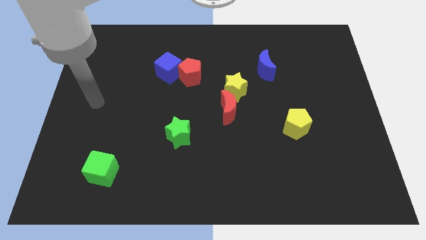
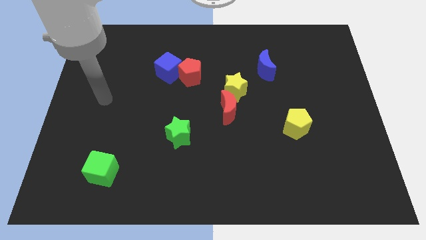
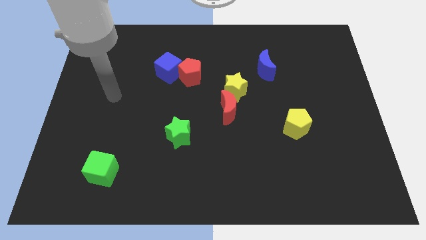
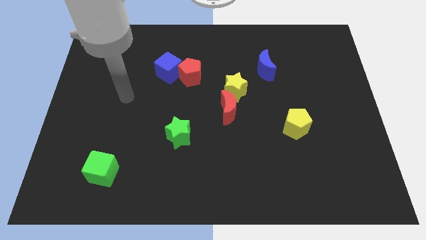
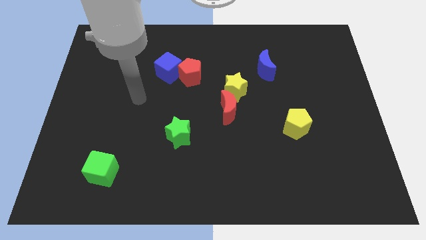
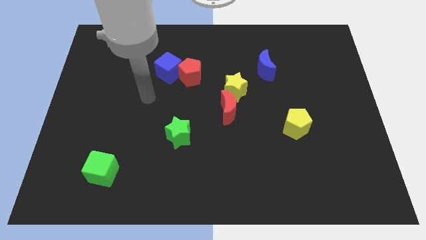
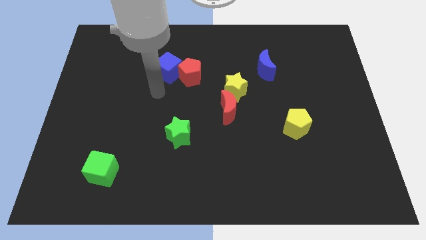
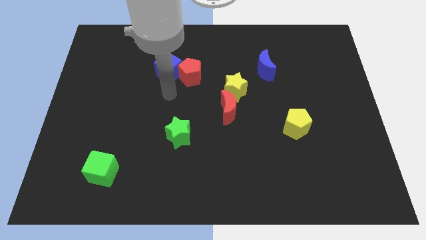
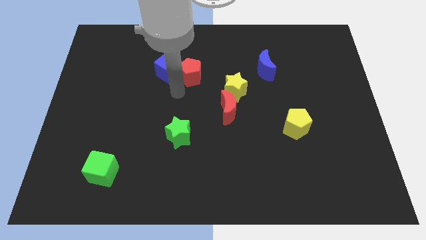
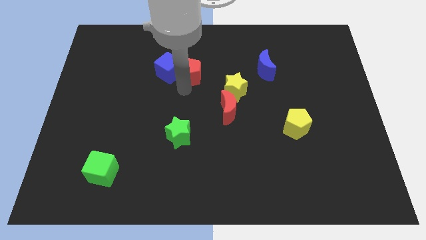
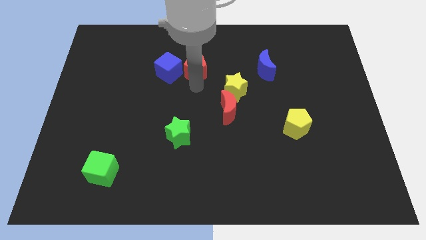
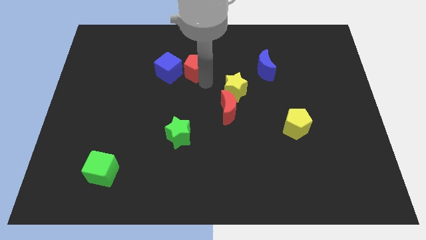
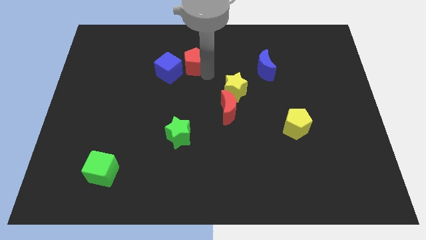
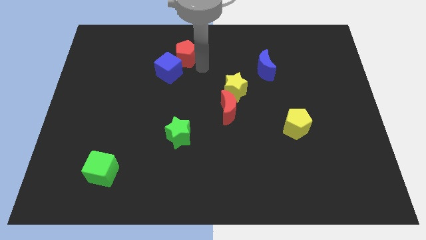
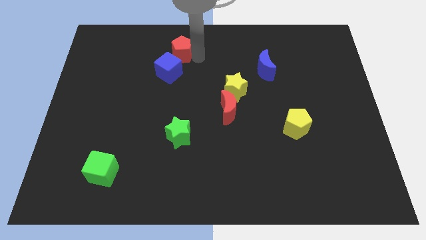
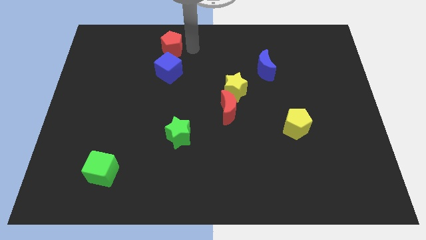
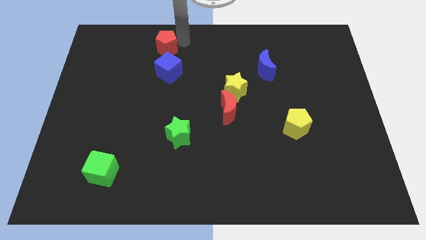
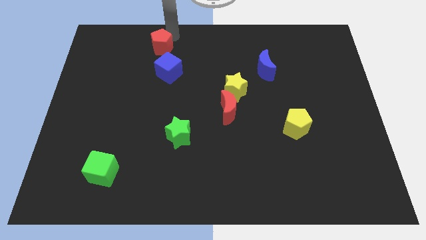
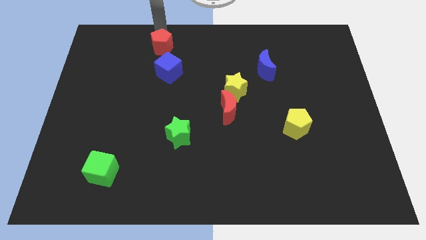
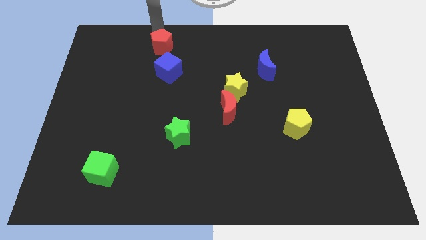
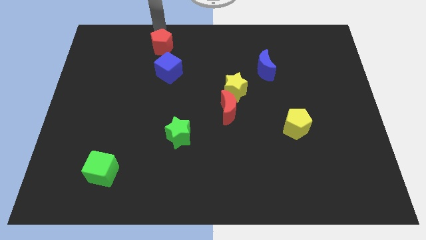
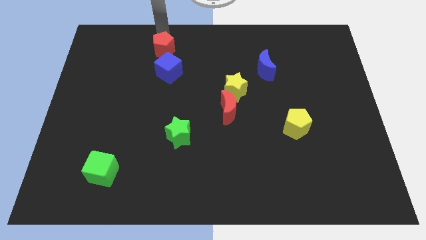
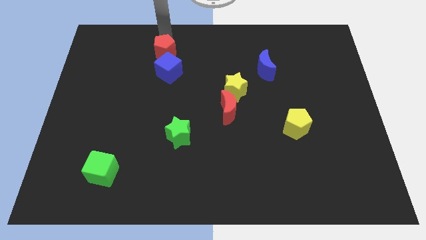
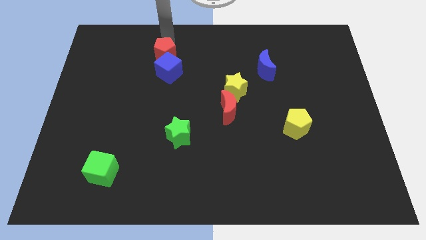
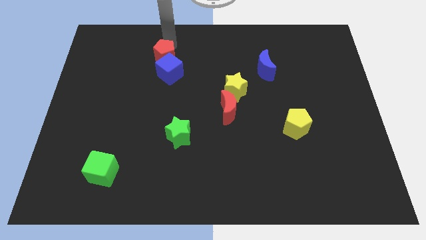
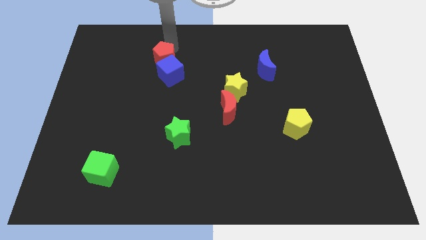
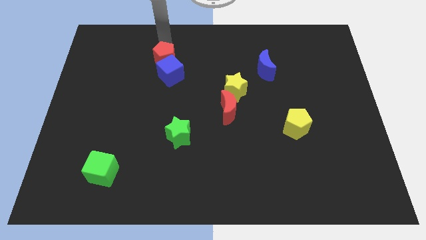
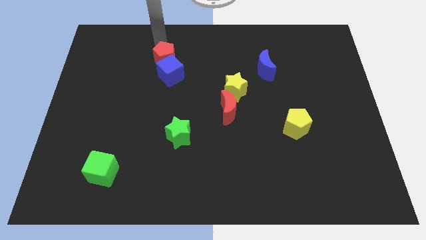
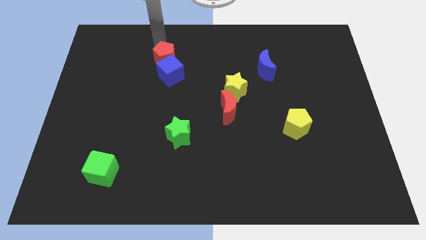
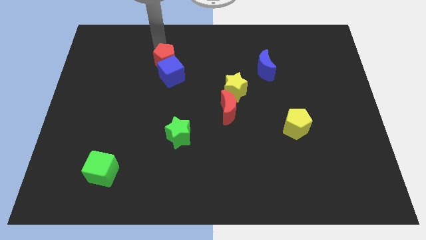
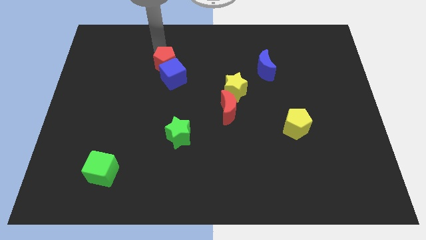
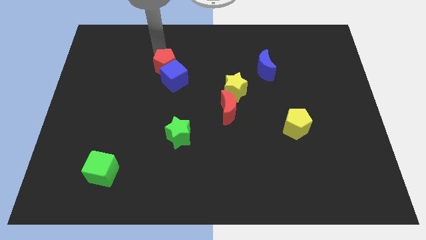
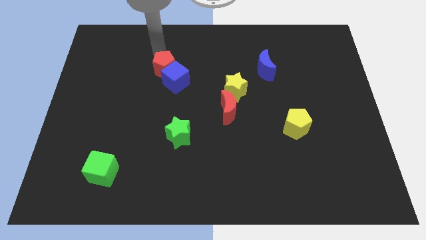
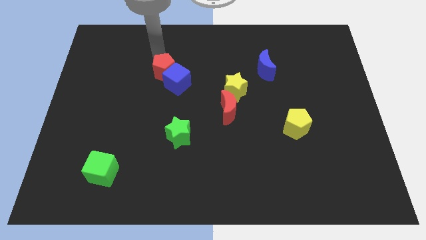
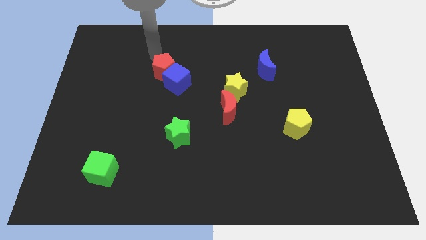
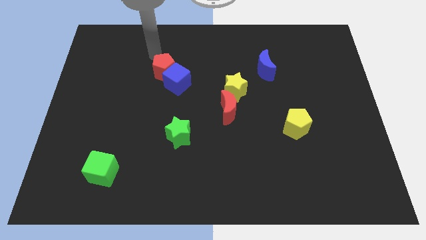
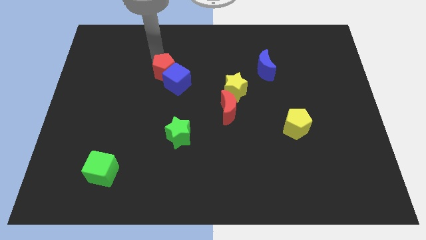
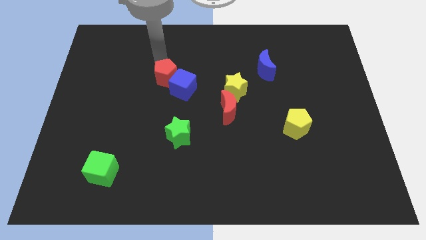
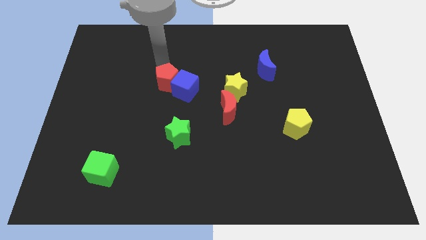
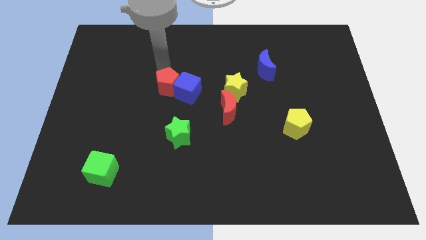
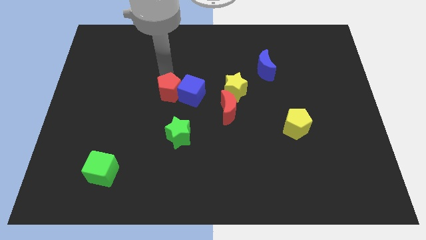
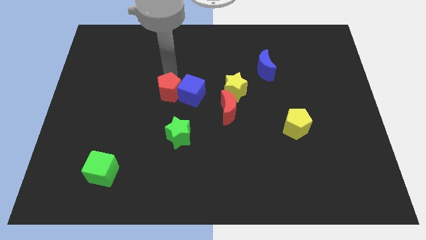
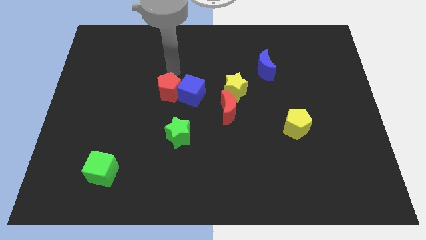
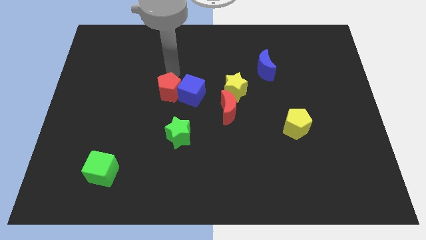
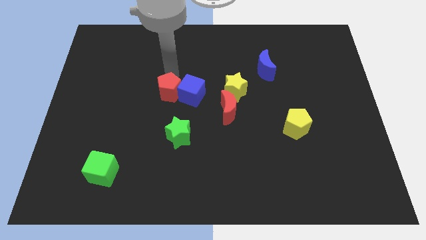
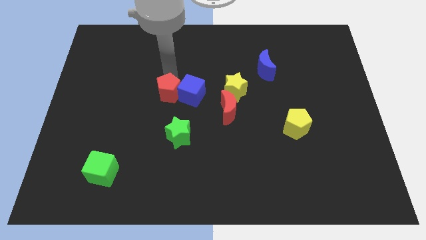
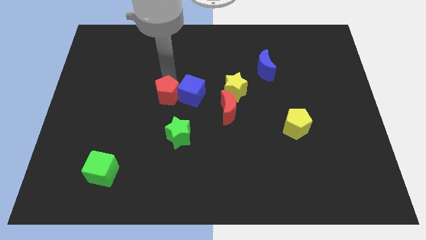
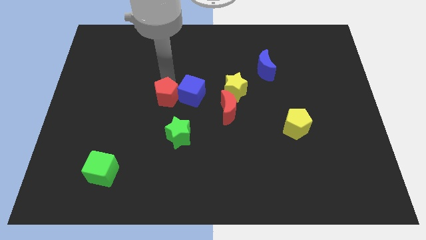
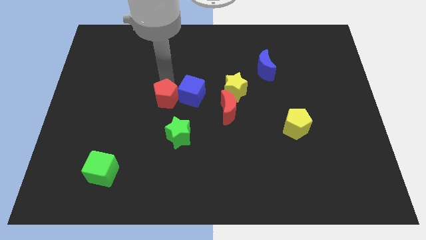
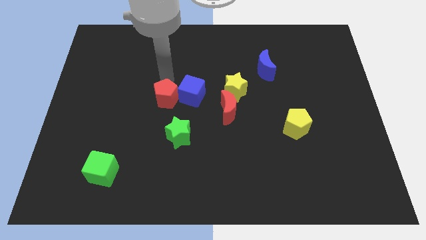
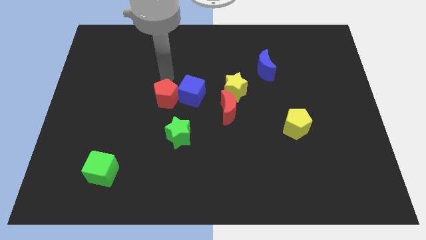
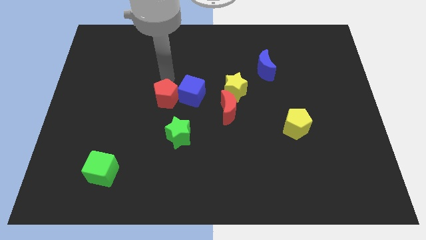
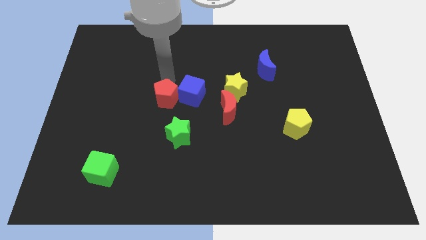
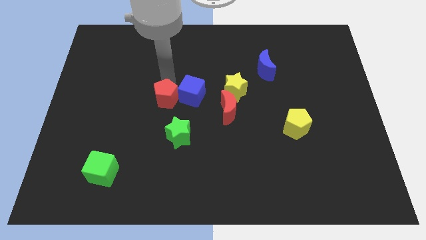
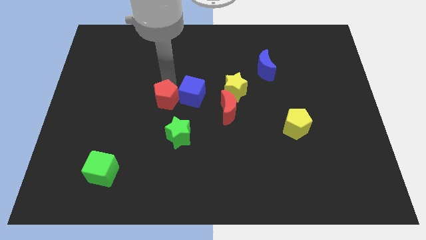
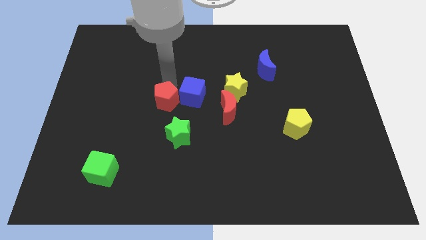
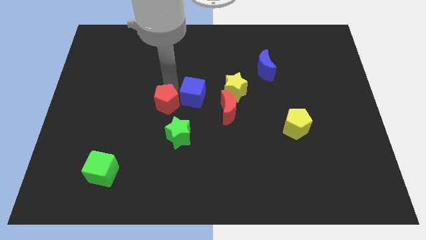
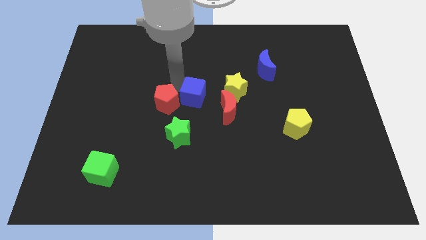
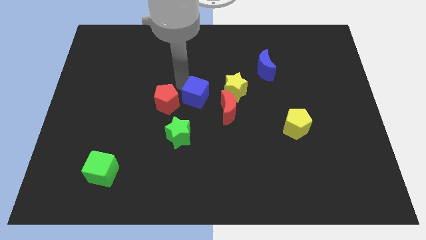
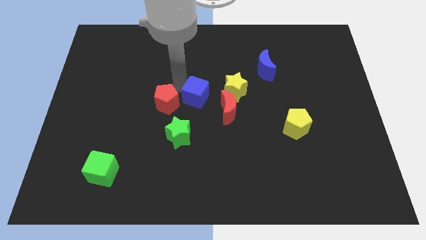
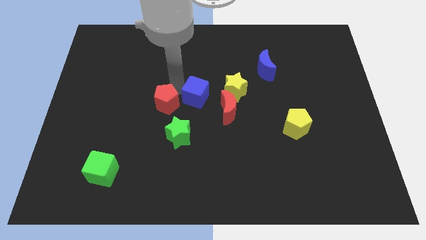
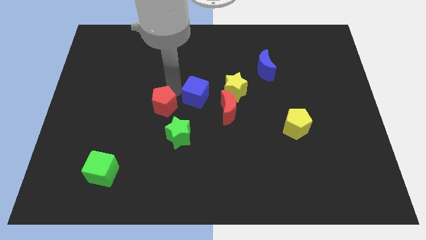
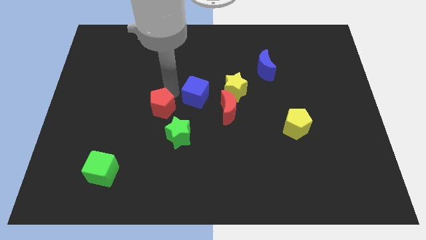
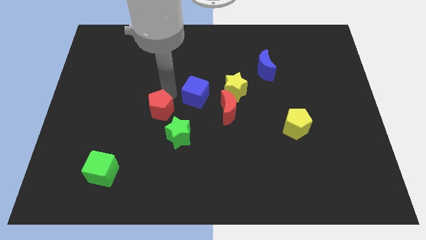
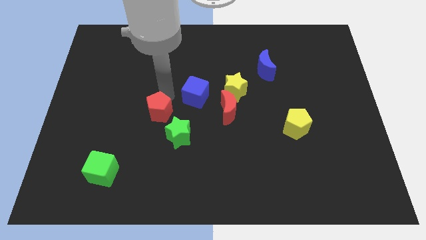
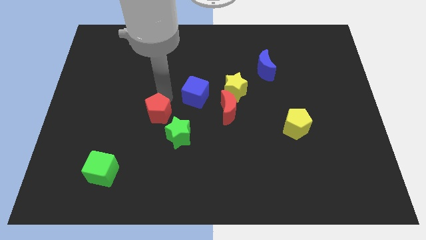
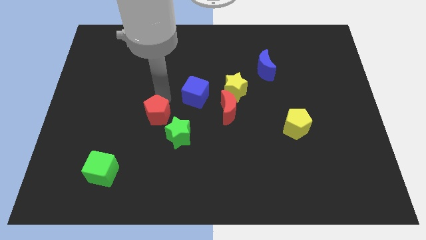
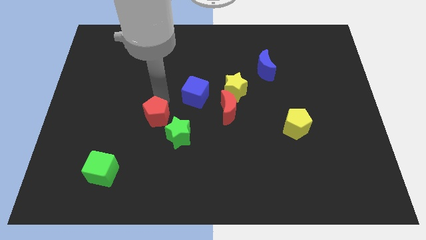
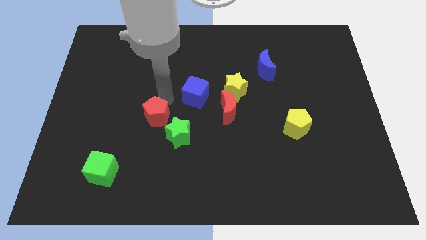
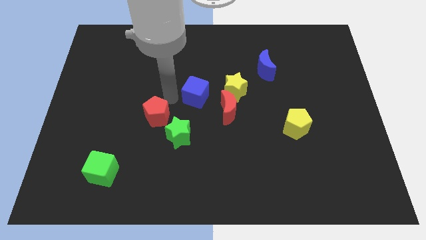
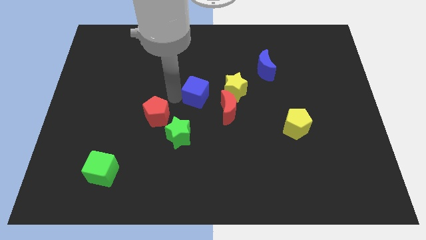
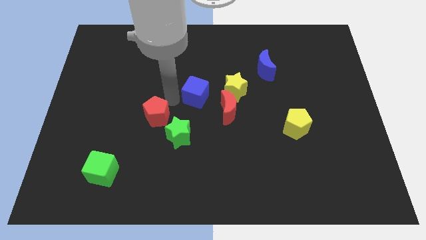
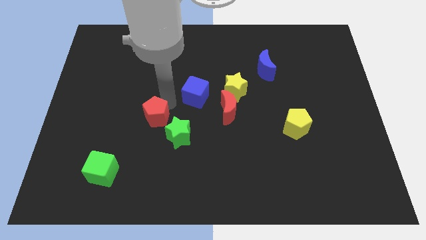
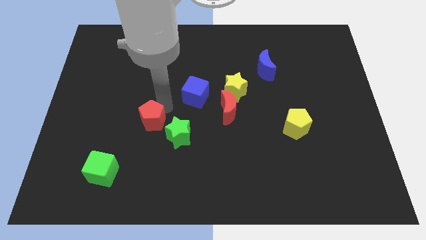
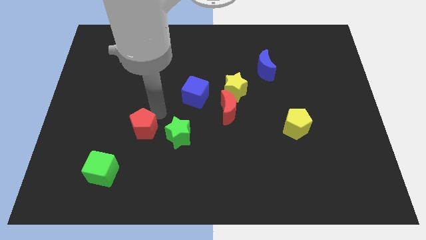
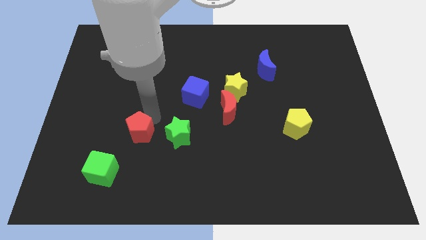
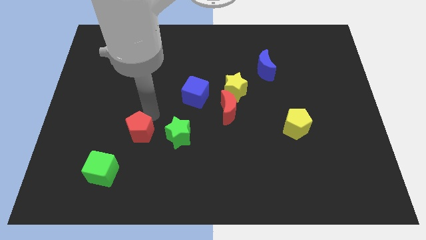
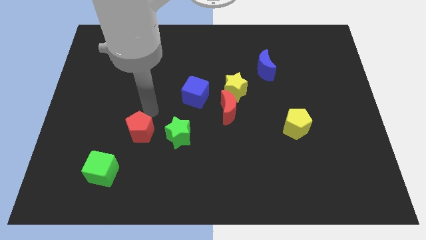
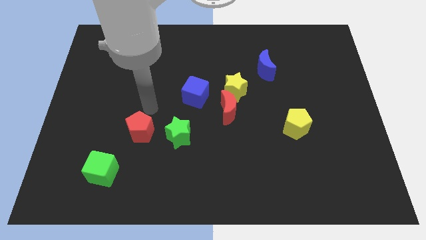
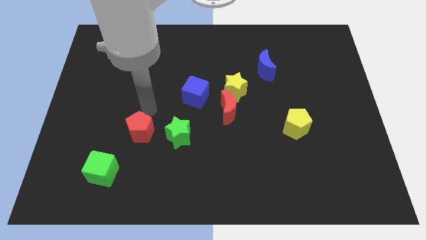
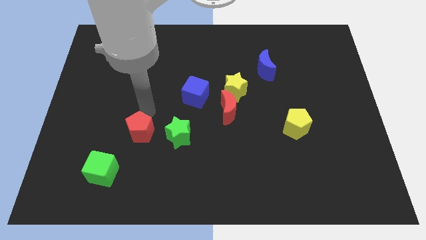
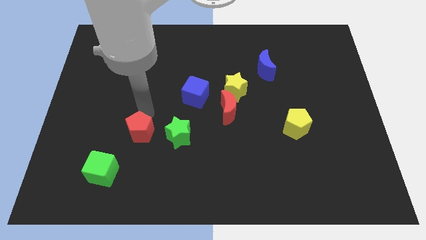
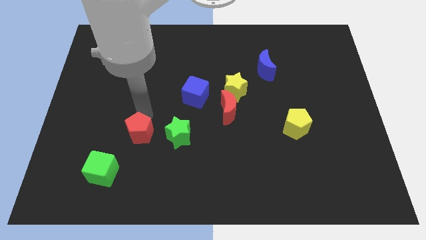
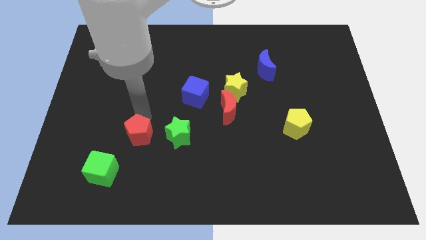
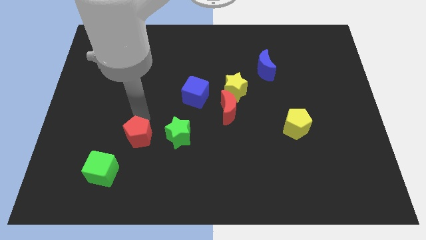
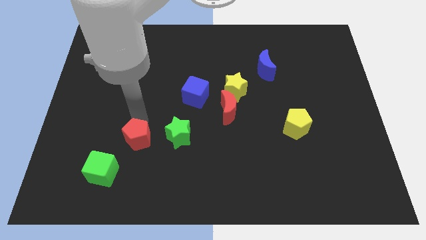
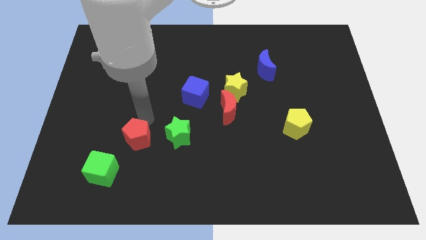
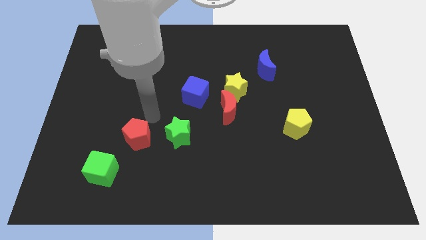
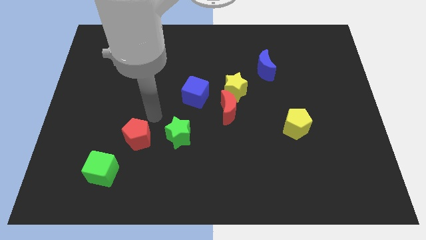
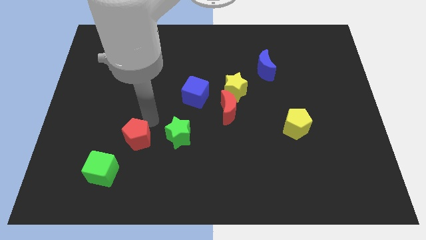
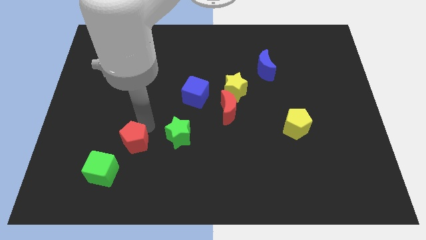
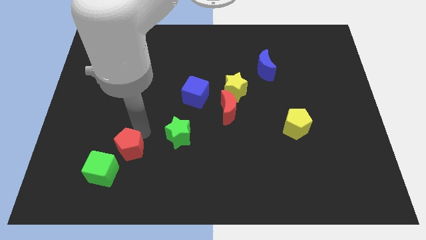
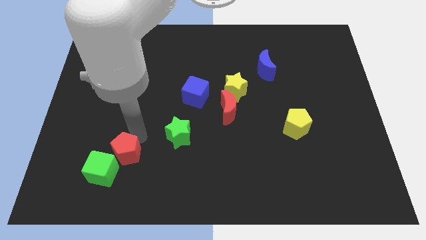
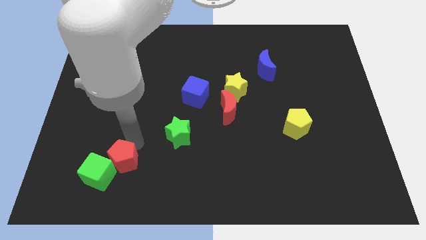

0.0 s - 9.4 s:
slide the red pentagon to the green cube
